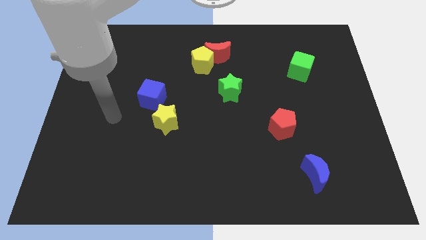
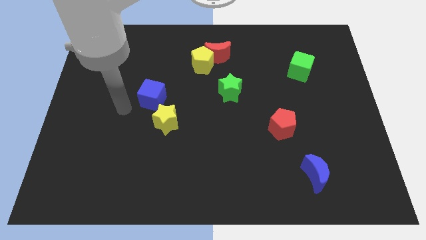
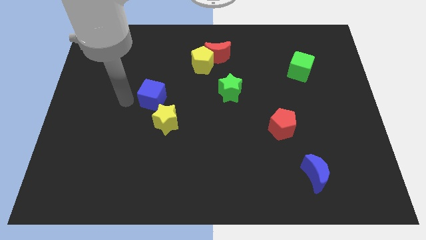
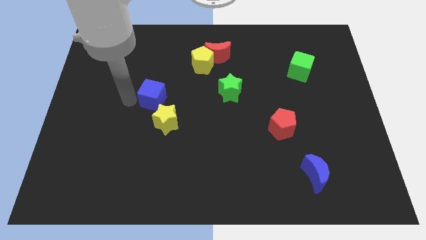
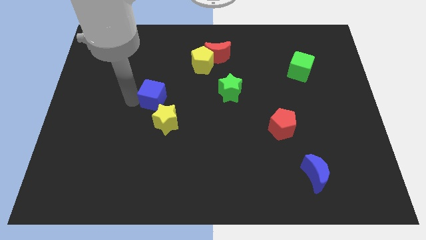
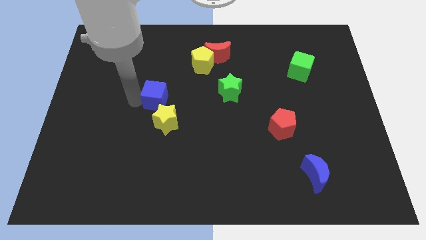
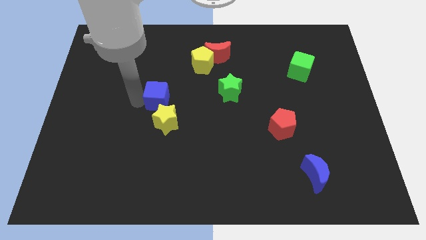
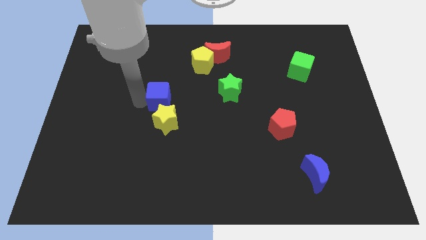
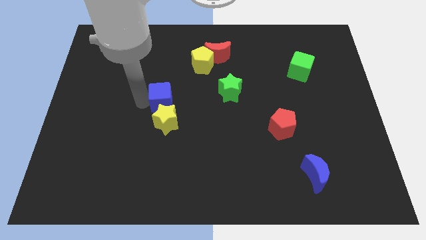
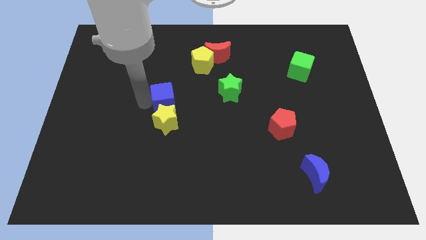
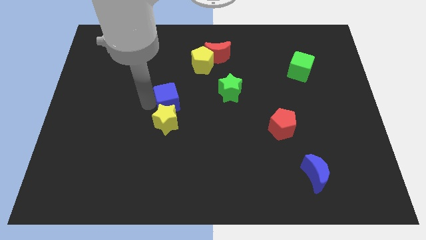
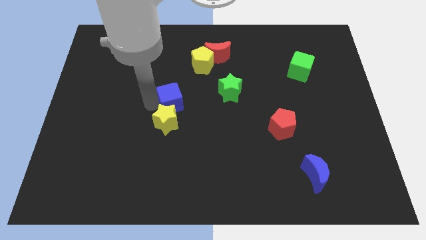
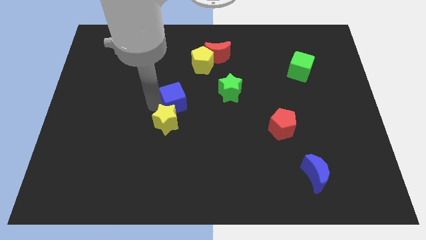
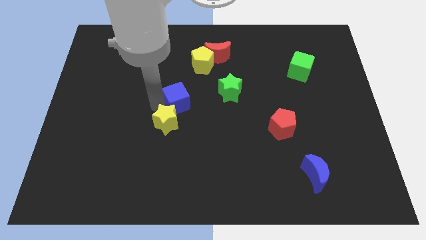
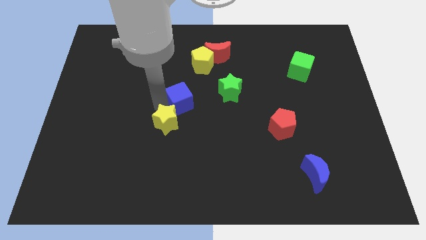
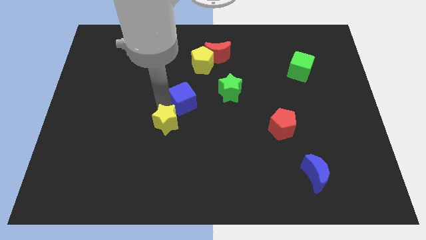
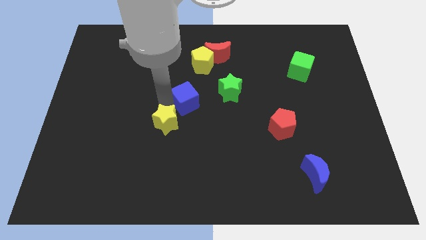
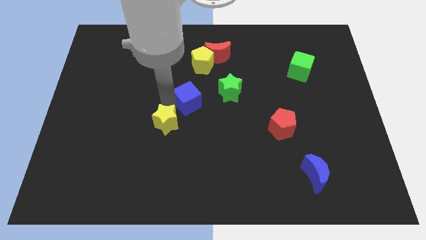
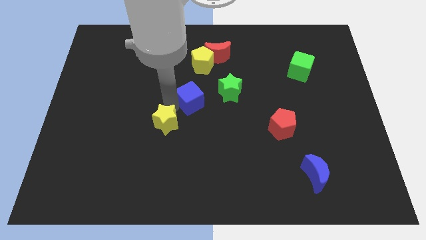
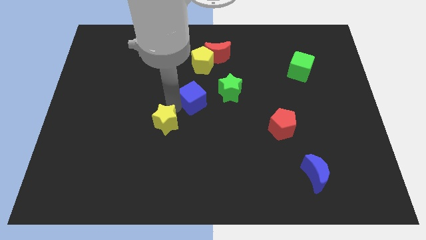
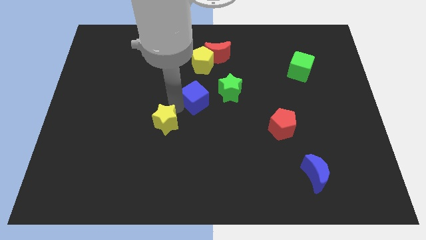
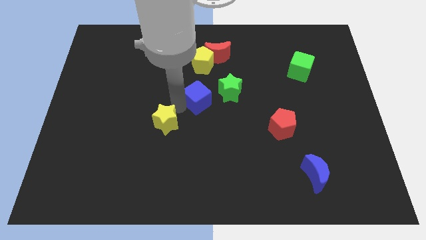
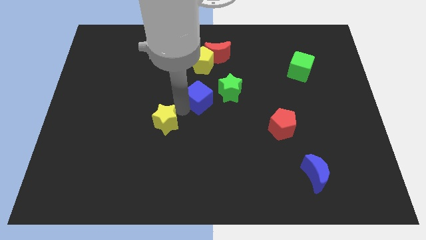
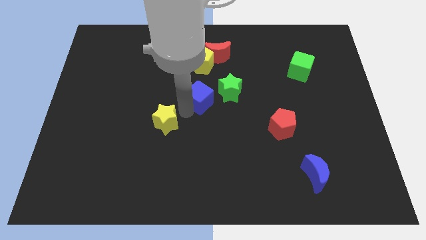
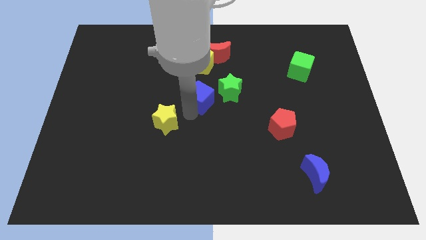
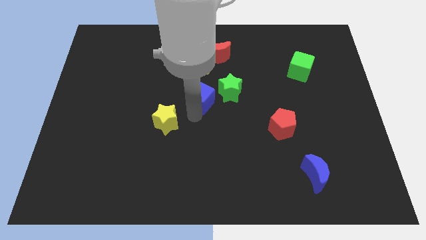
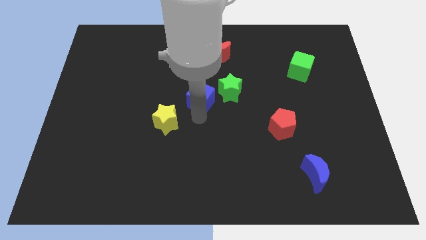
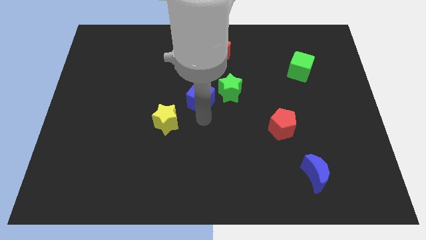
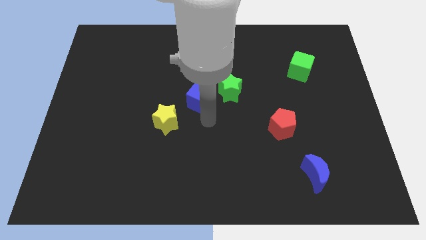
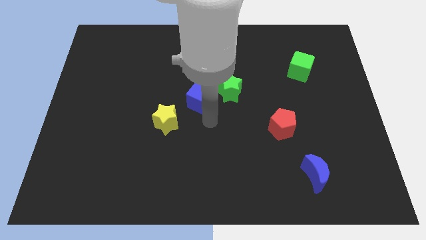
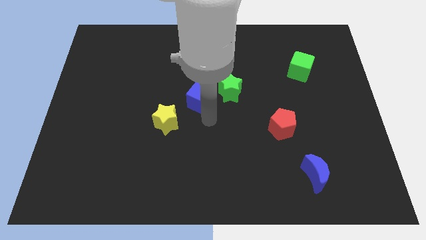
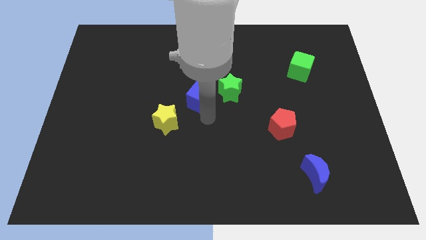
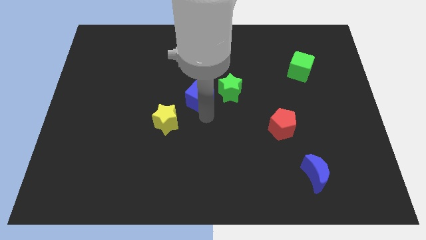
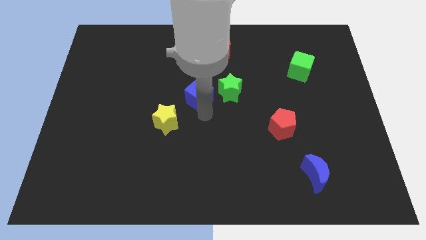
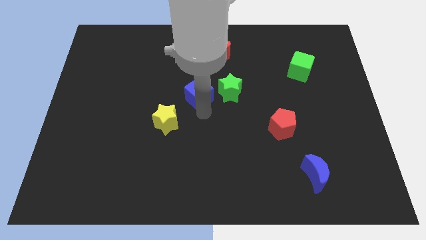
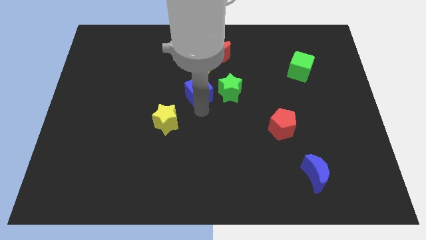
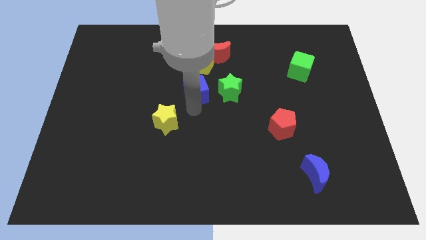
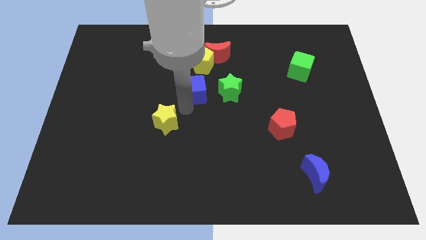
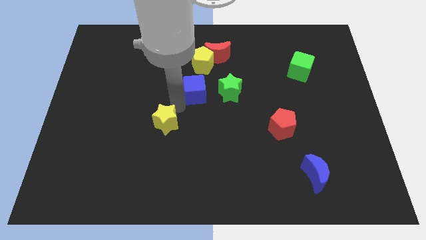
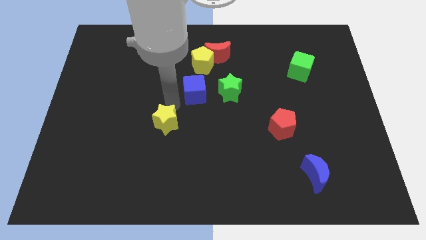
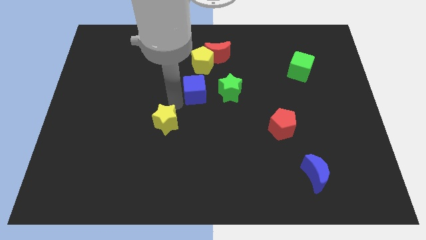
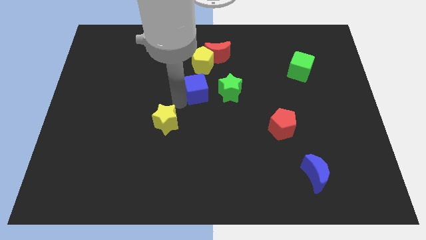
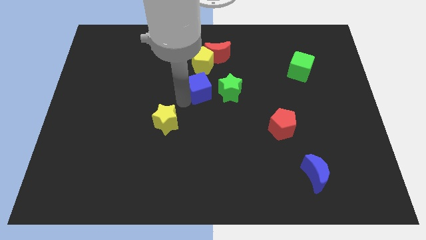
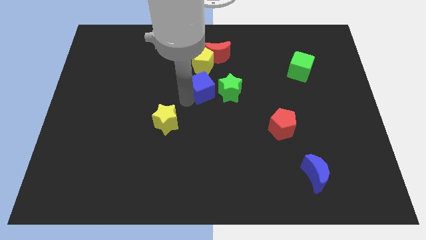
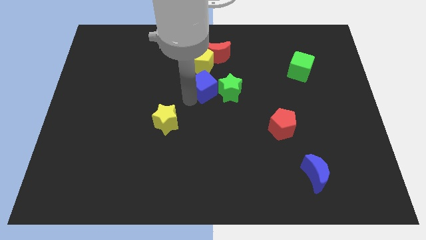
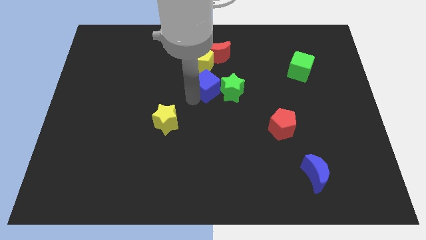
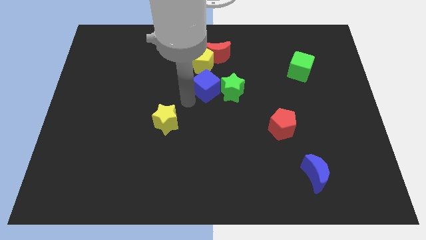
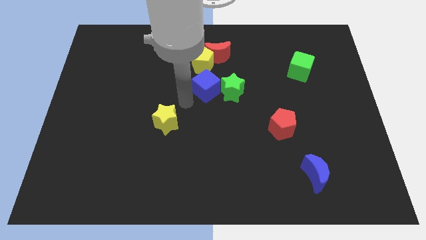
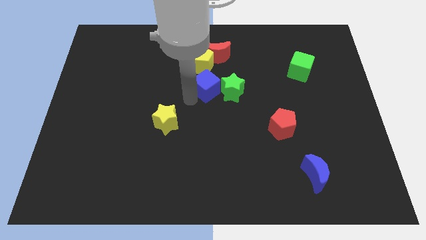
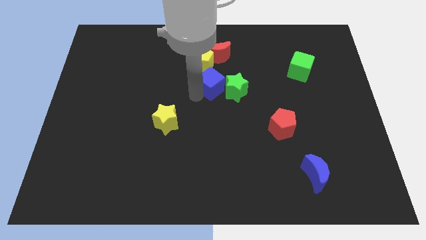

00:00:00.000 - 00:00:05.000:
put the blue cube to the bottom right of the yellow pentagon

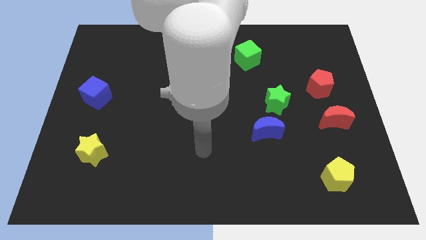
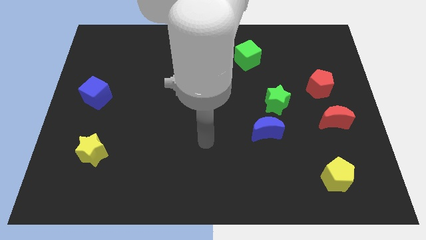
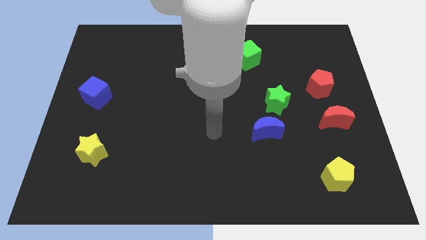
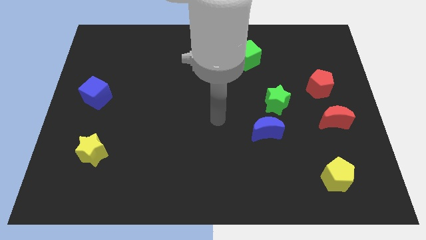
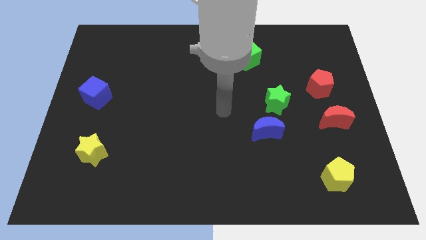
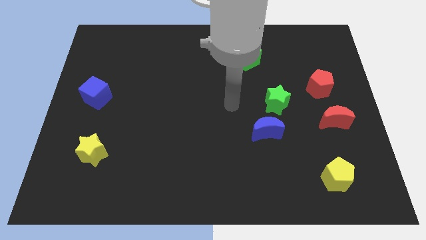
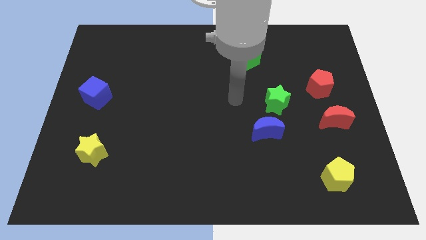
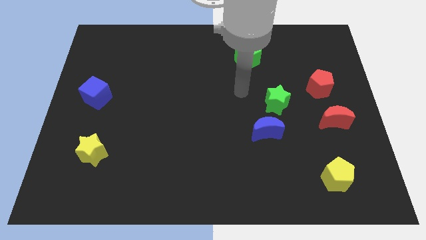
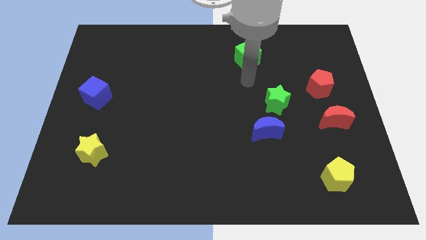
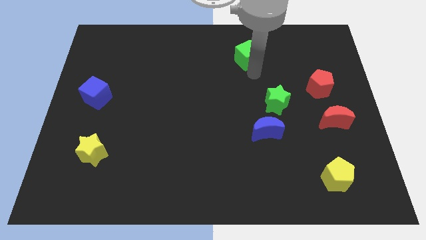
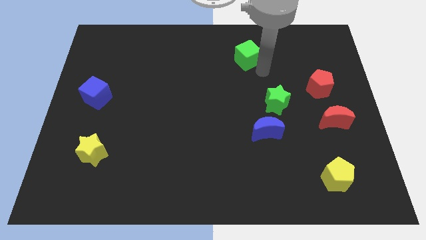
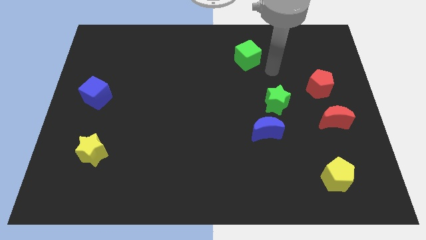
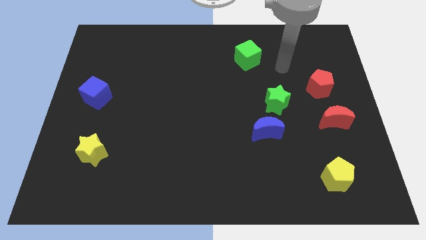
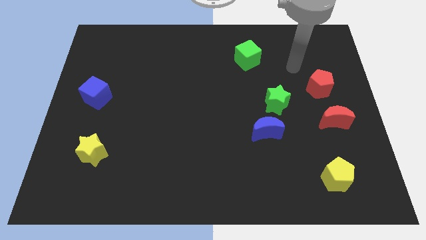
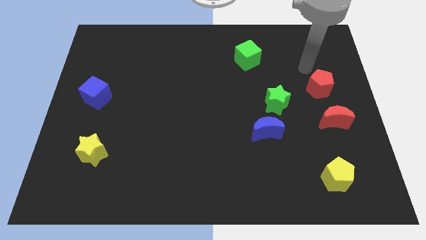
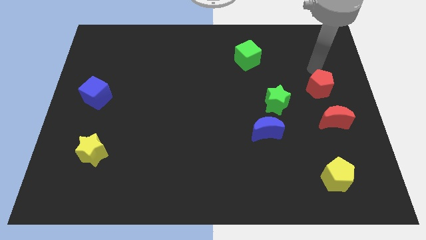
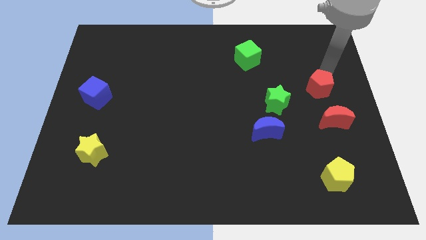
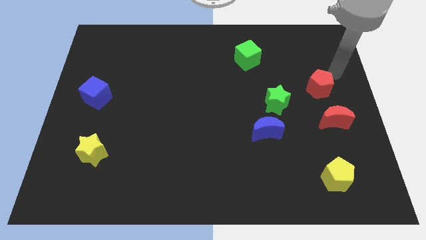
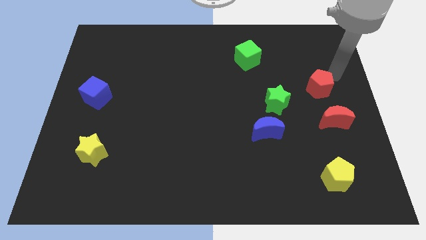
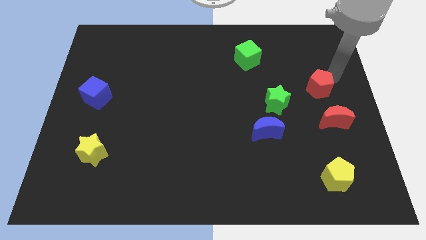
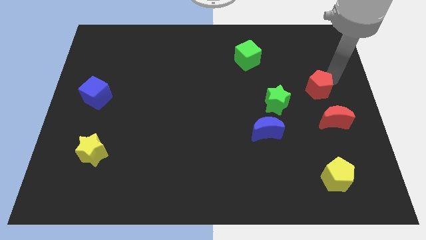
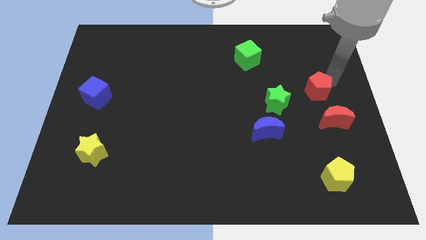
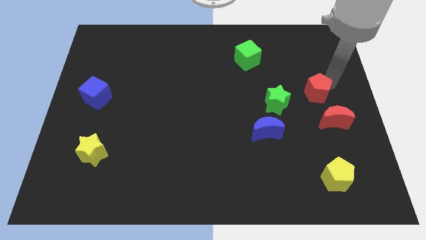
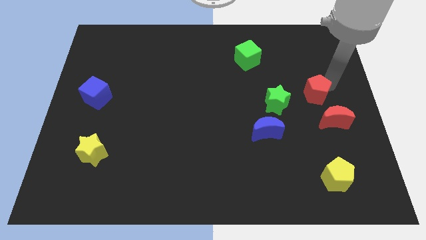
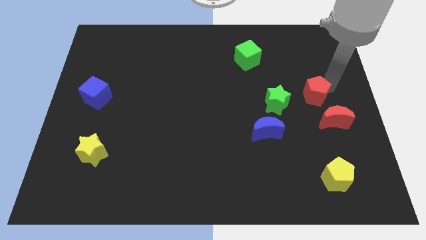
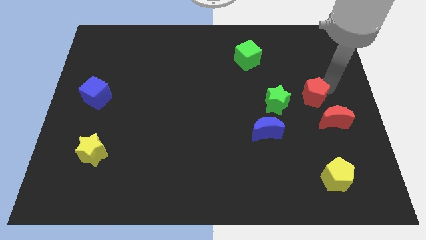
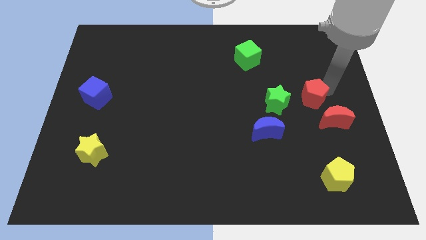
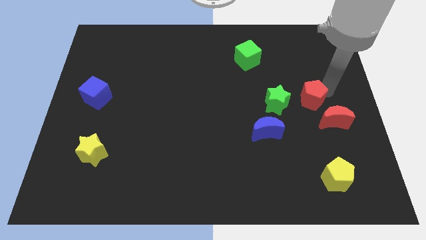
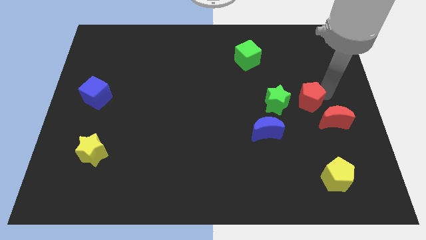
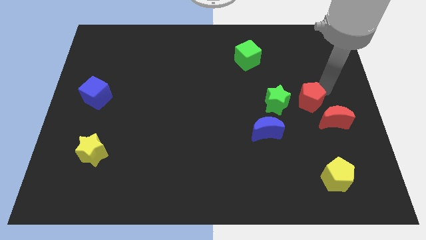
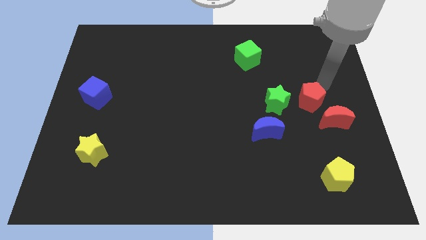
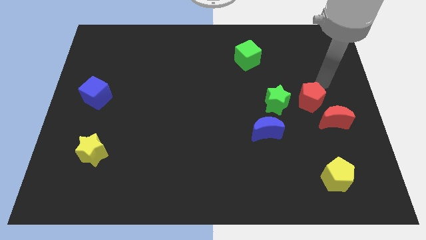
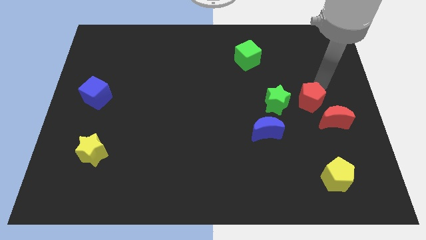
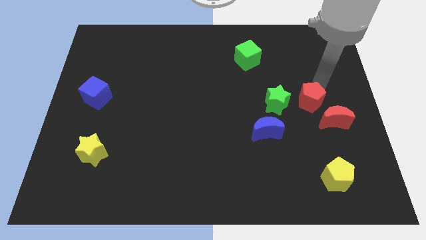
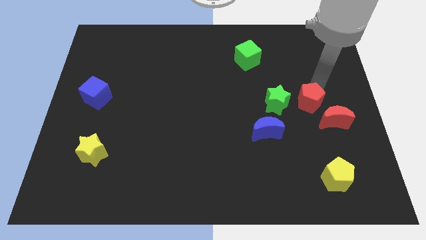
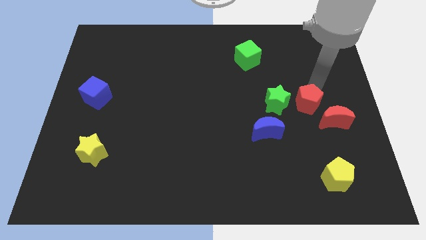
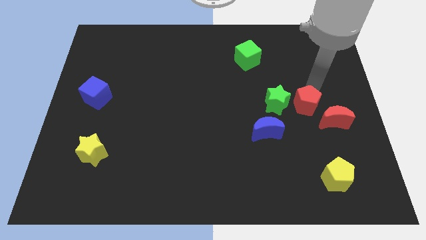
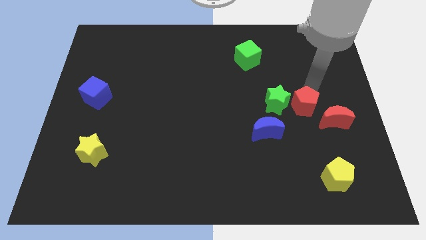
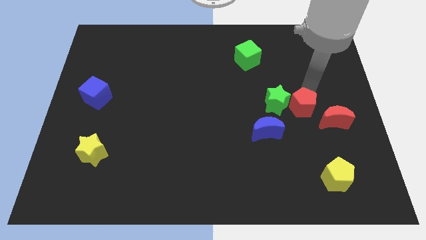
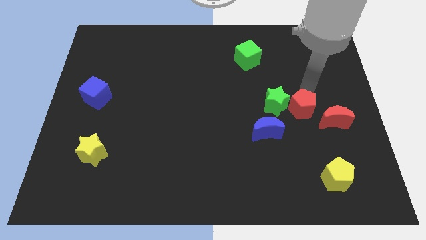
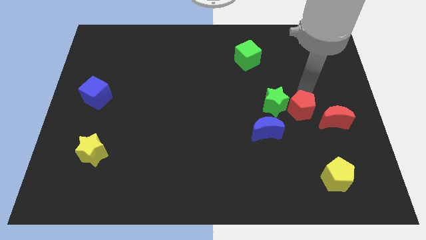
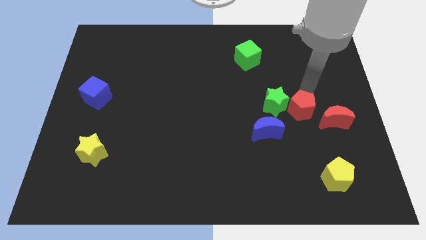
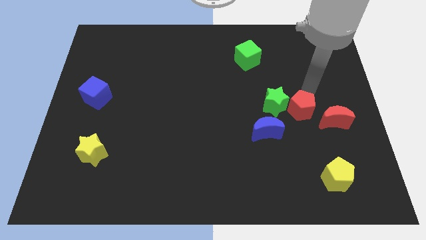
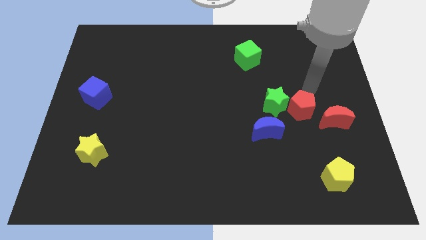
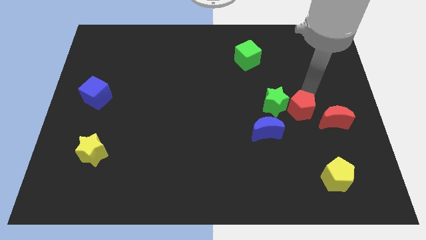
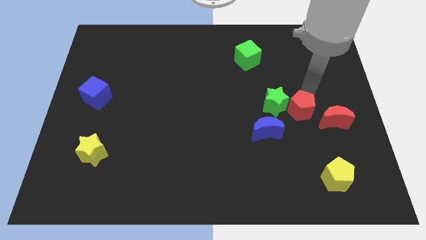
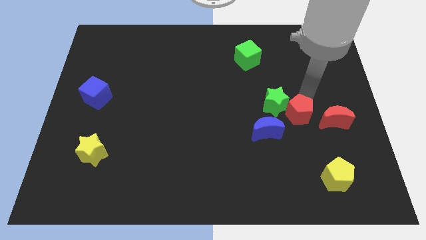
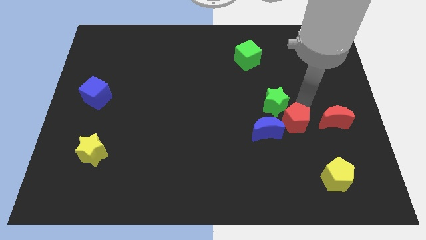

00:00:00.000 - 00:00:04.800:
move the red pentagon to the bottom side of the green star
